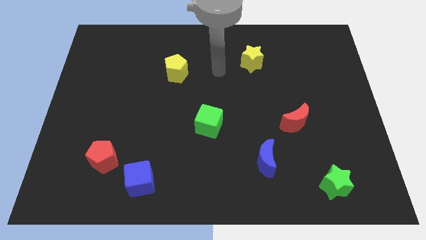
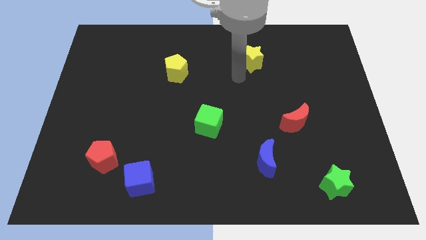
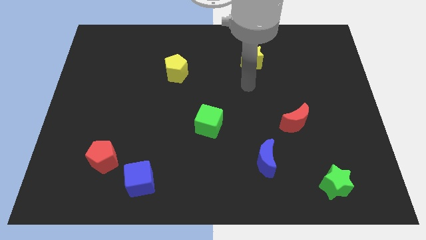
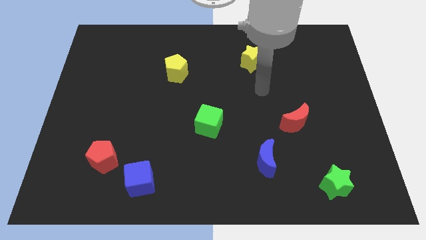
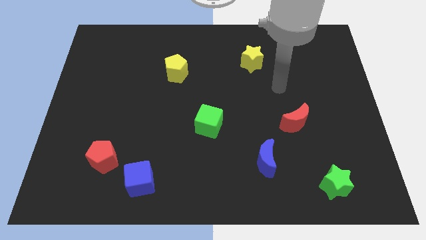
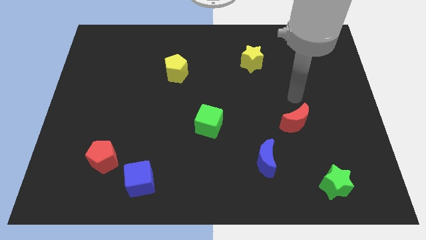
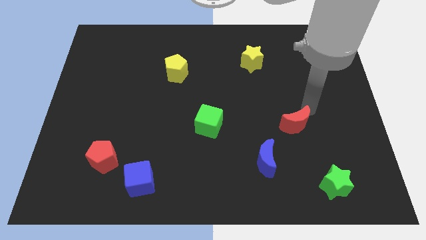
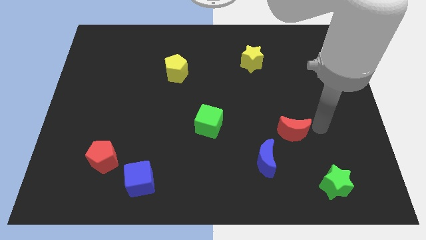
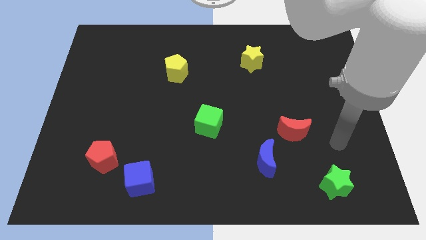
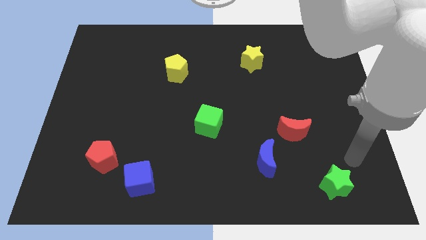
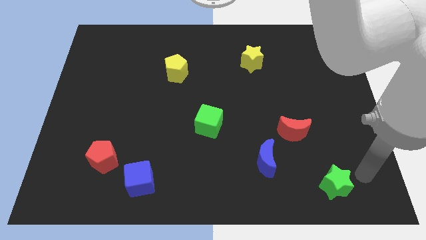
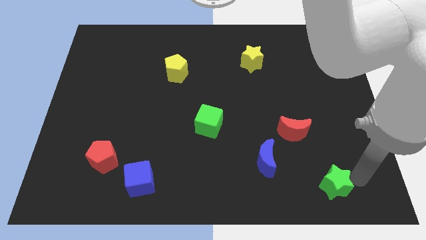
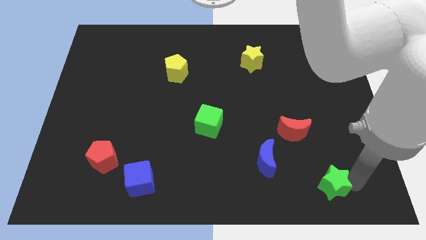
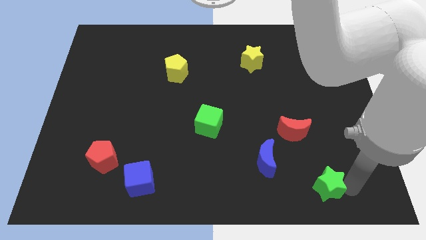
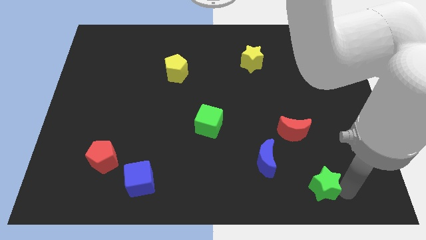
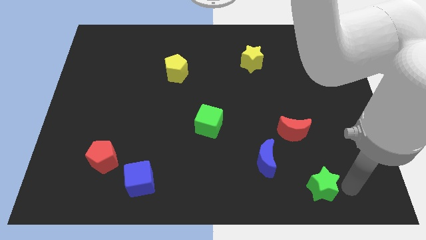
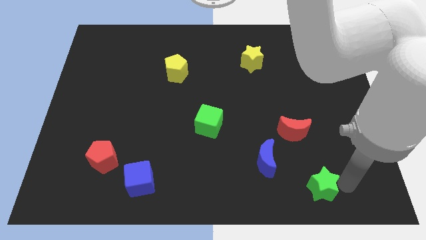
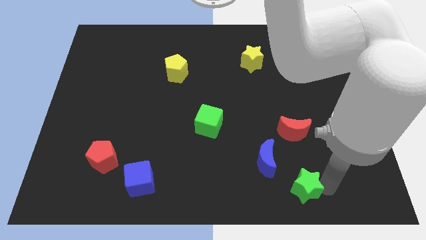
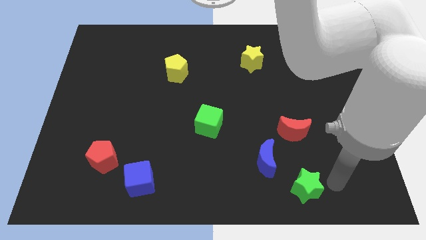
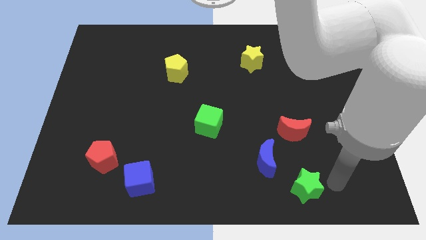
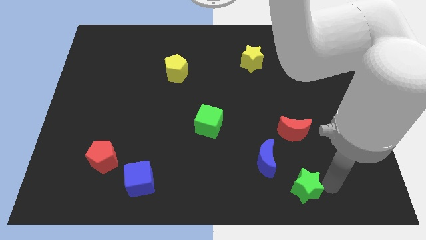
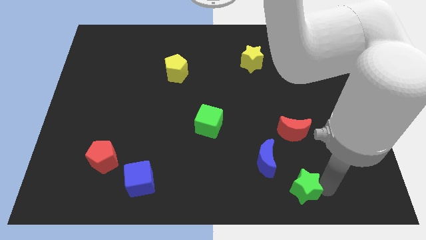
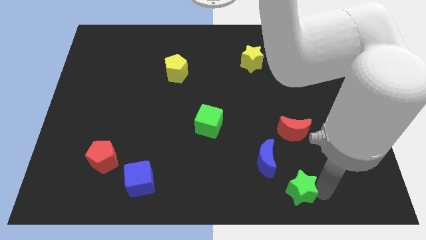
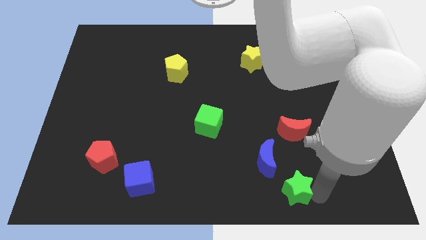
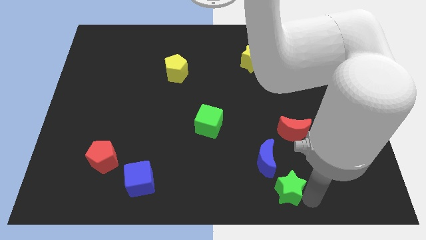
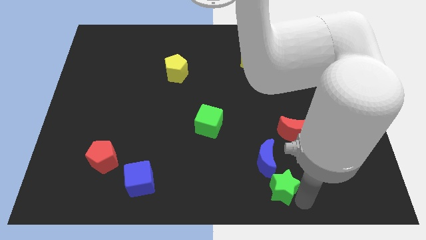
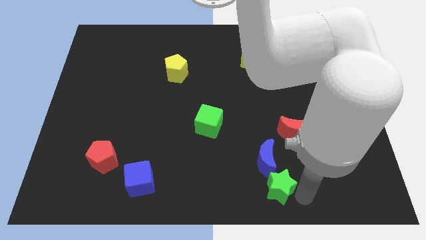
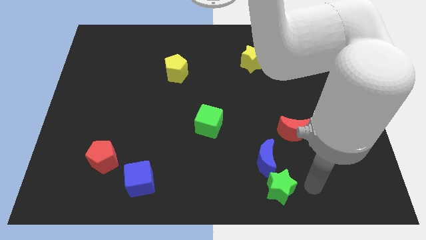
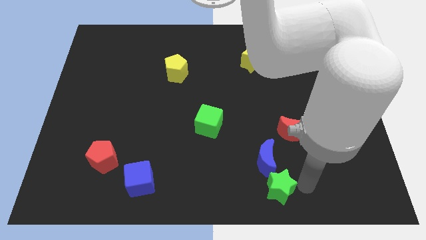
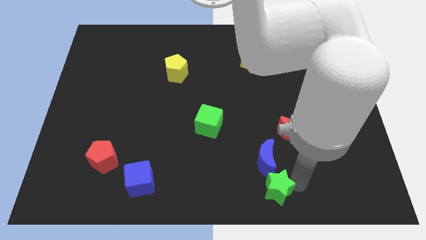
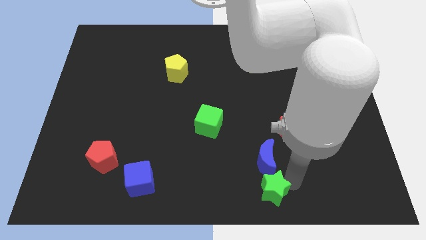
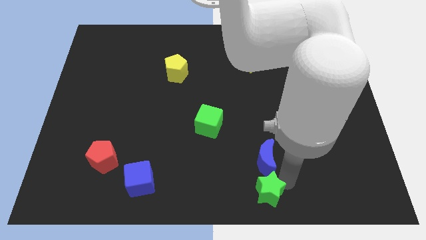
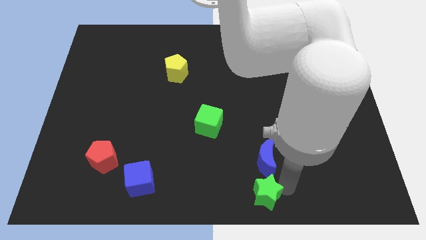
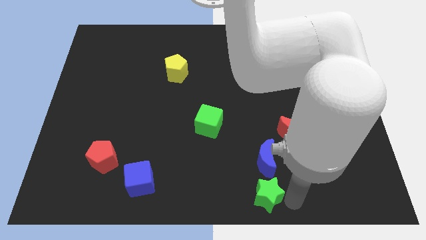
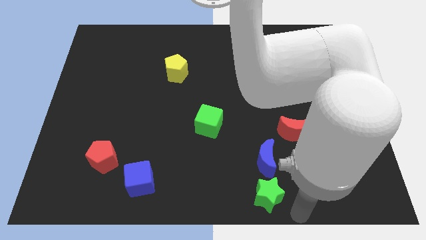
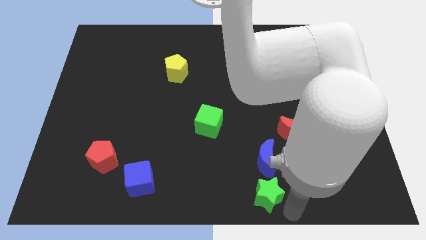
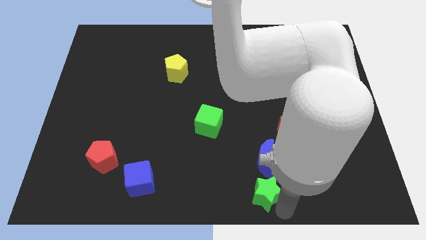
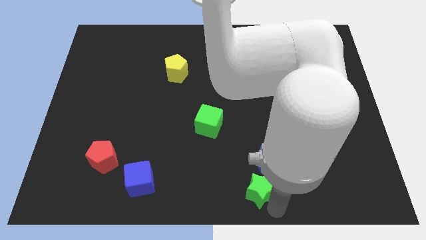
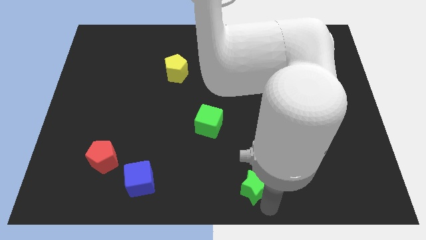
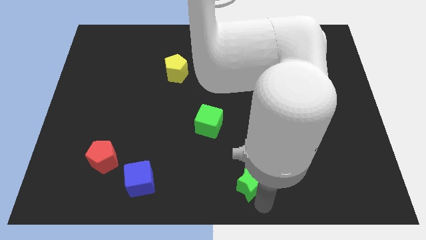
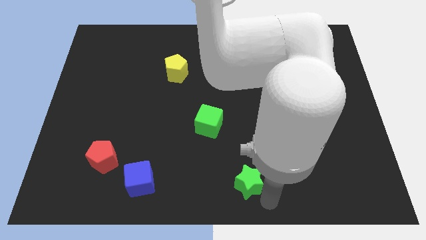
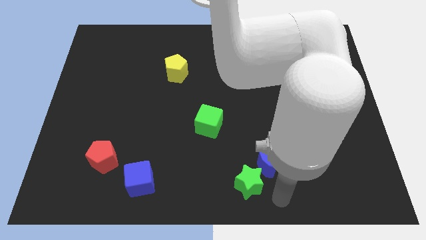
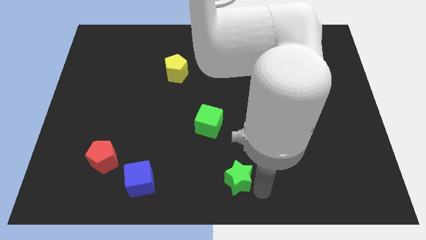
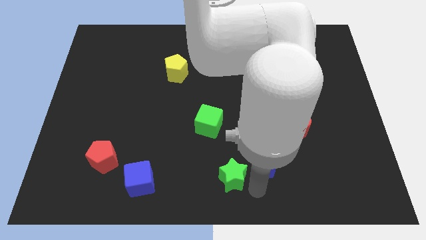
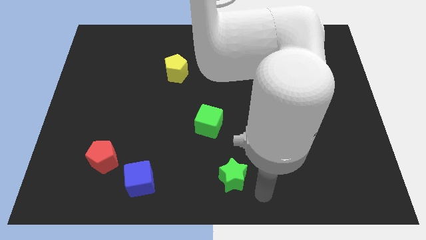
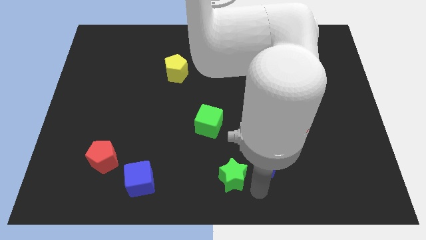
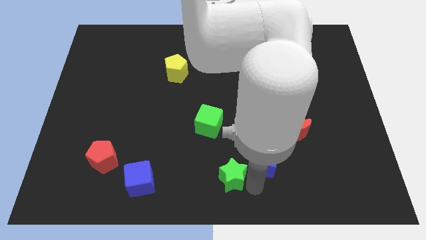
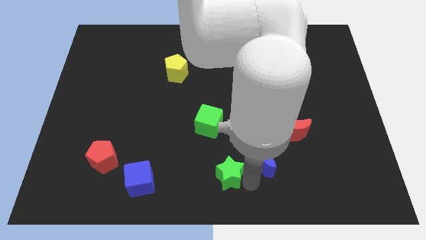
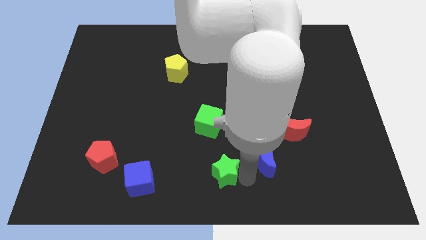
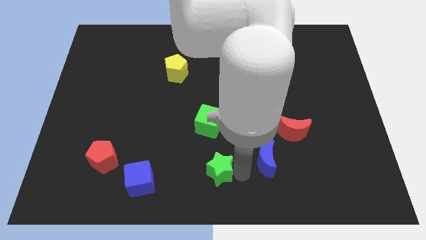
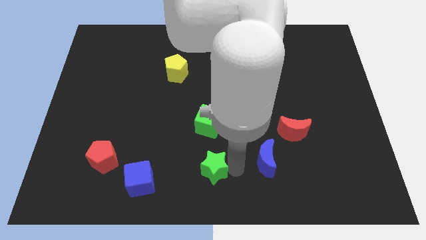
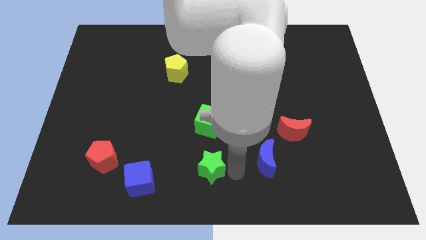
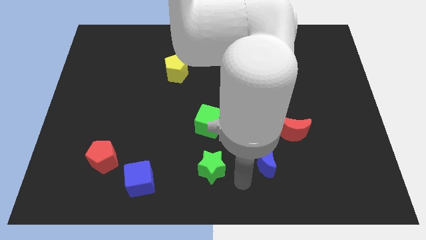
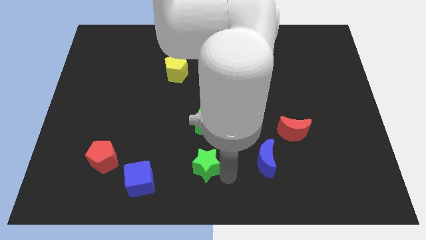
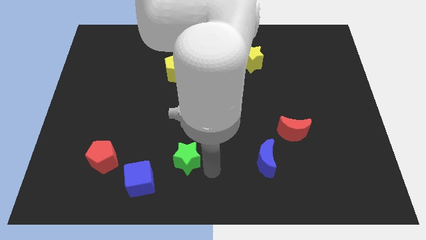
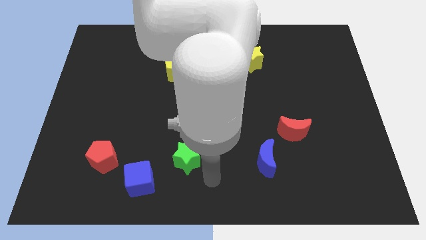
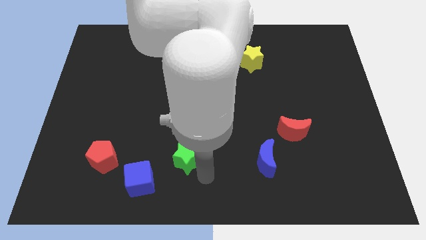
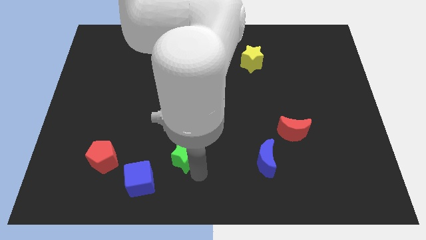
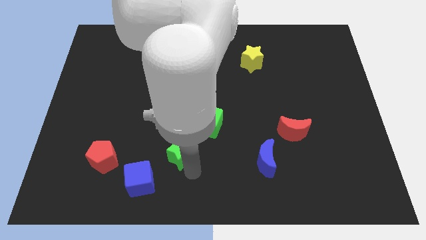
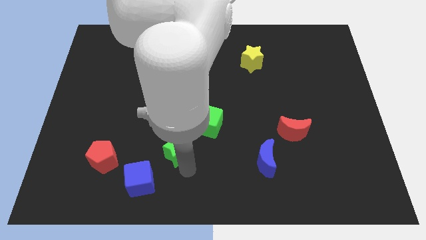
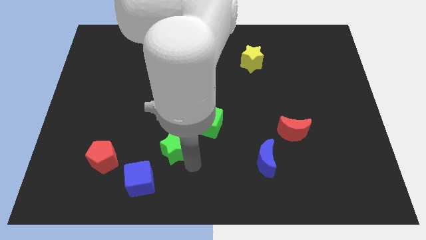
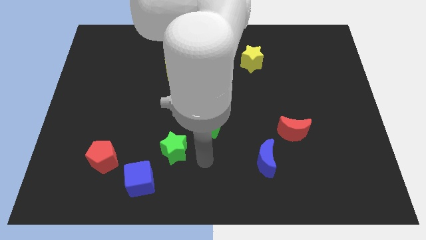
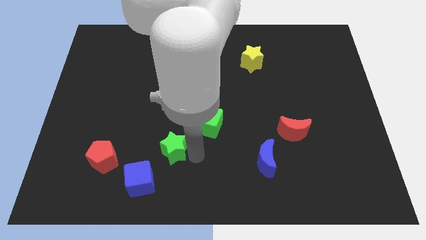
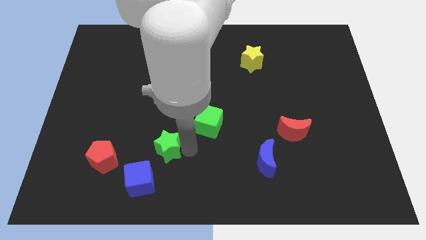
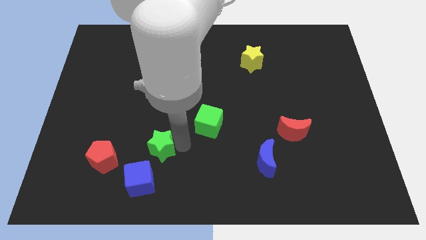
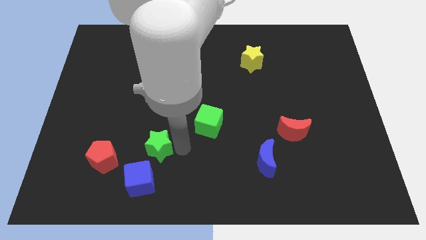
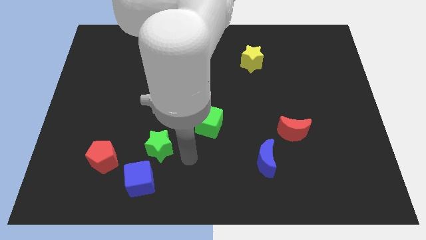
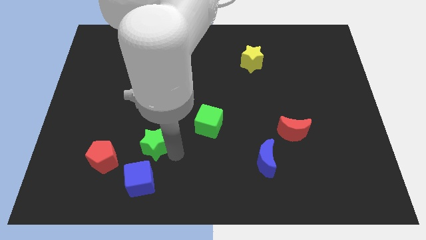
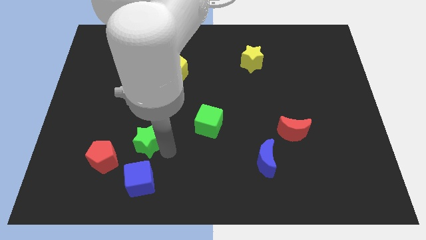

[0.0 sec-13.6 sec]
slide the green star diagonally up and to the right of the red pentagon
